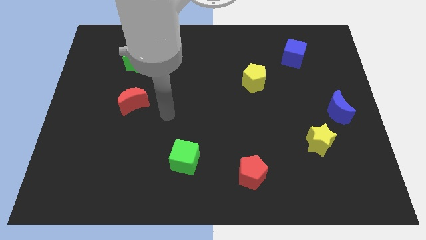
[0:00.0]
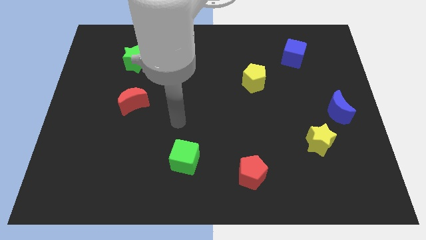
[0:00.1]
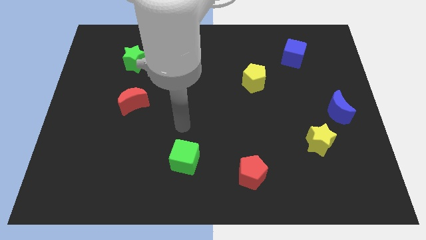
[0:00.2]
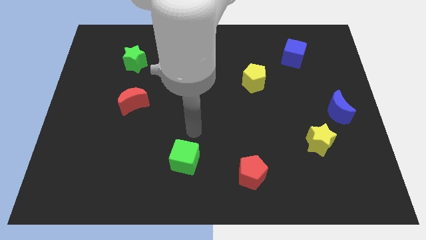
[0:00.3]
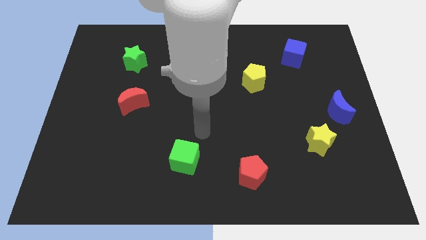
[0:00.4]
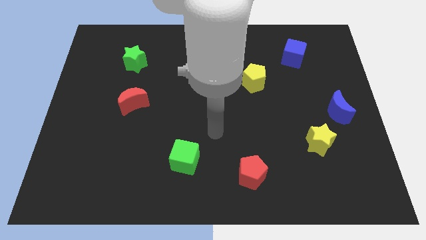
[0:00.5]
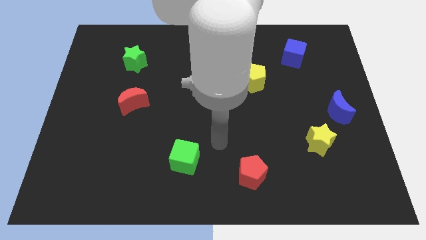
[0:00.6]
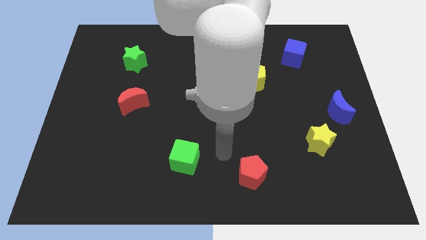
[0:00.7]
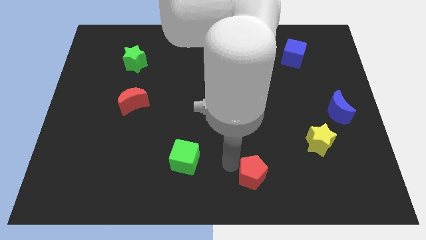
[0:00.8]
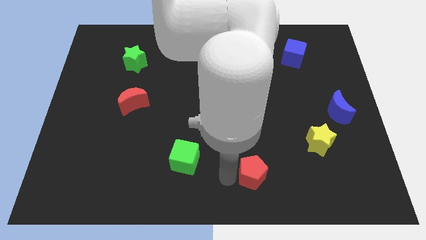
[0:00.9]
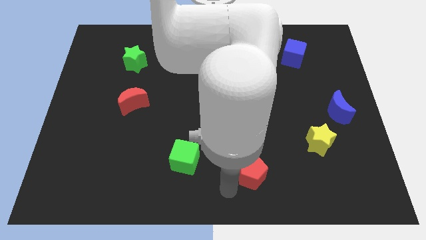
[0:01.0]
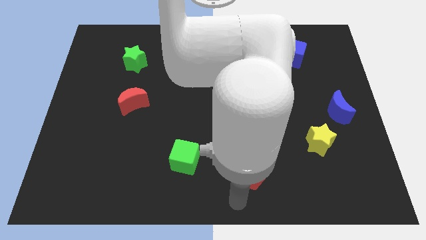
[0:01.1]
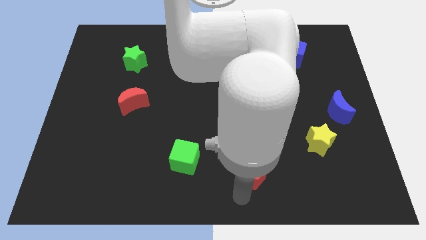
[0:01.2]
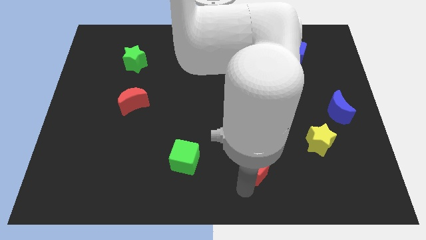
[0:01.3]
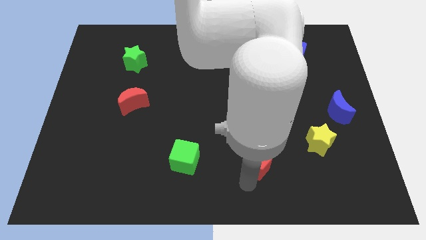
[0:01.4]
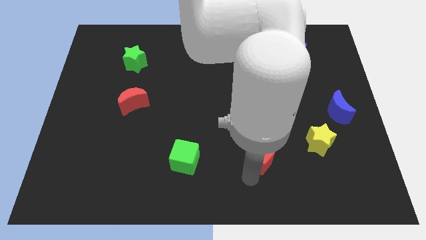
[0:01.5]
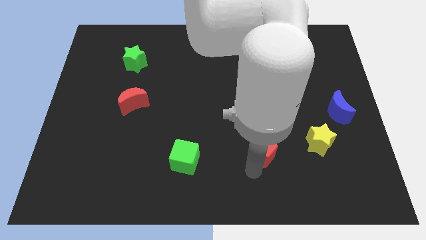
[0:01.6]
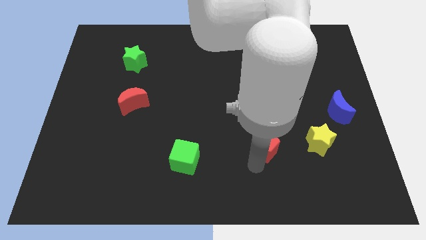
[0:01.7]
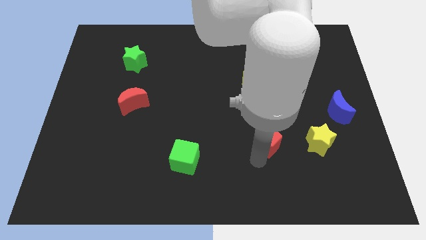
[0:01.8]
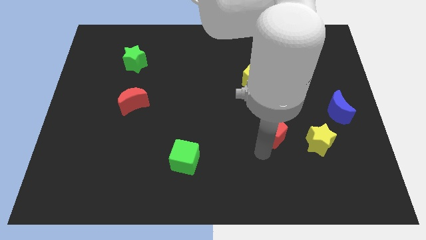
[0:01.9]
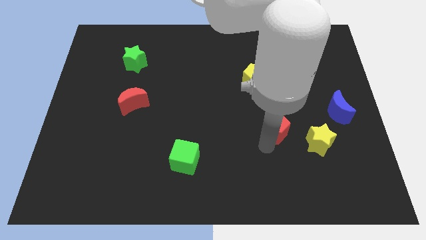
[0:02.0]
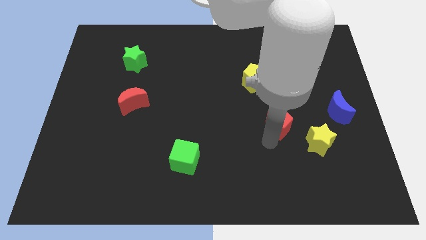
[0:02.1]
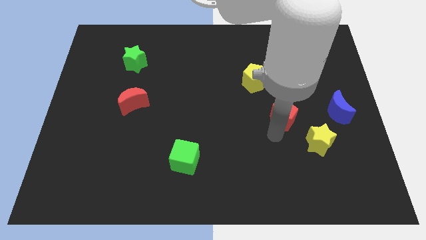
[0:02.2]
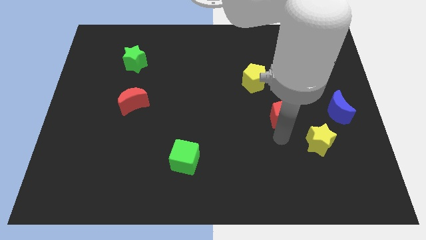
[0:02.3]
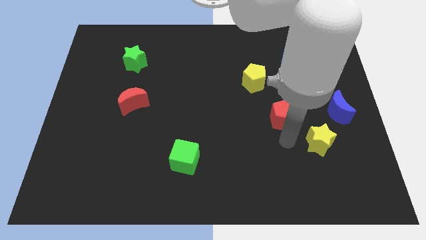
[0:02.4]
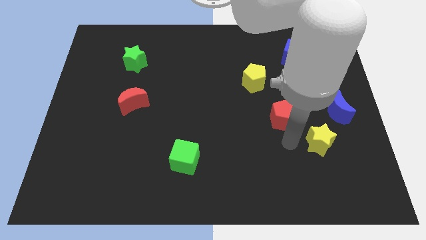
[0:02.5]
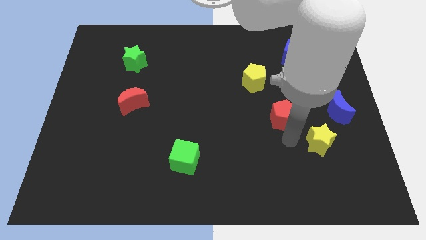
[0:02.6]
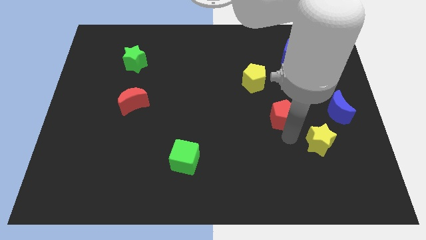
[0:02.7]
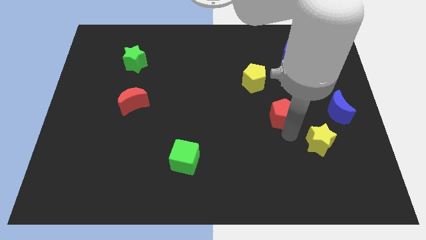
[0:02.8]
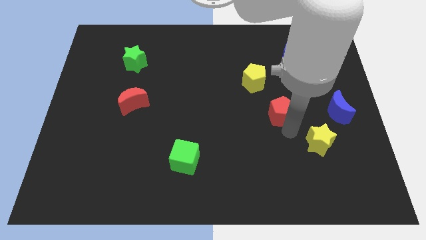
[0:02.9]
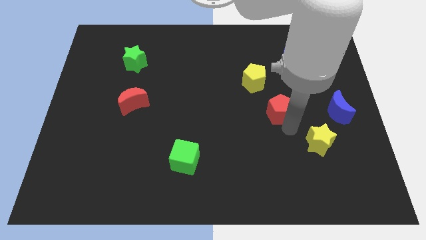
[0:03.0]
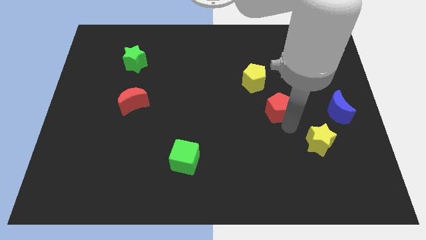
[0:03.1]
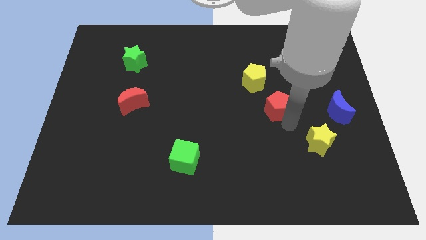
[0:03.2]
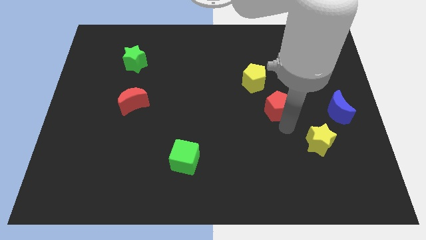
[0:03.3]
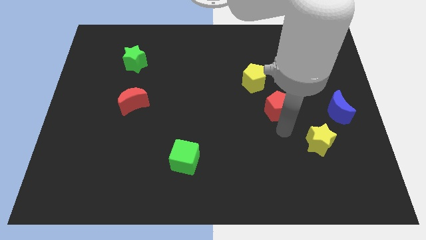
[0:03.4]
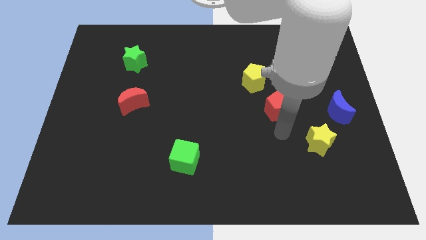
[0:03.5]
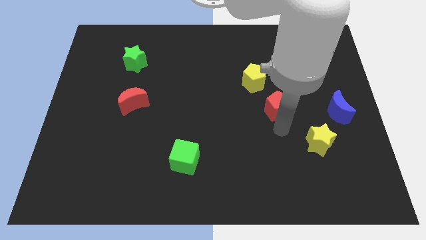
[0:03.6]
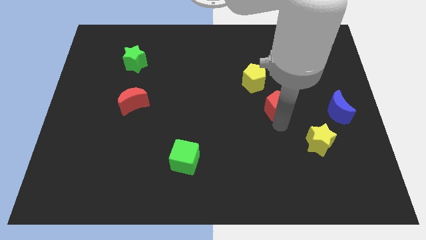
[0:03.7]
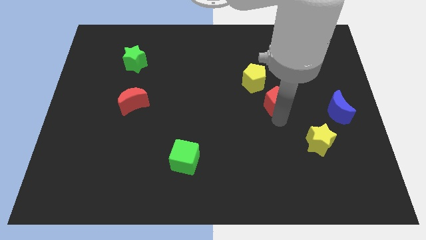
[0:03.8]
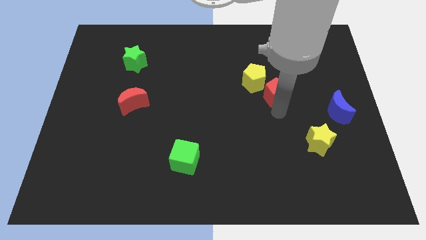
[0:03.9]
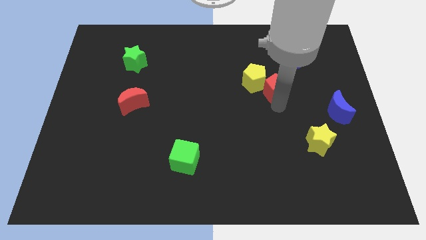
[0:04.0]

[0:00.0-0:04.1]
slide the red pentagon up

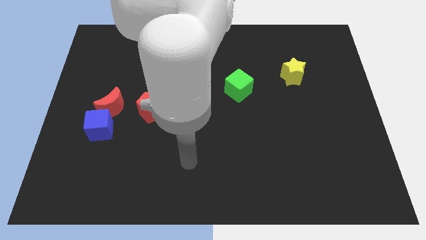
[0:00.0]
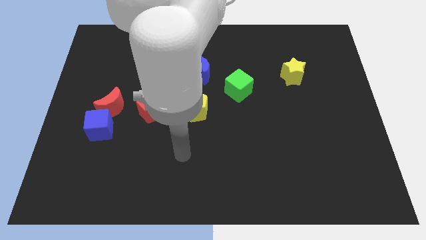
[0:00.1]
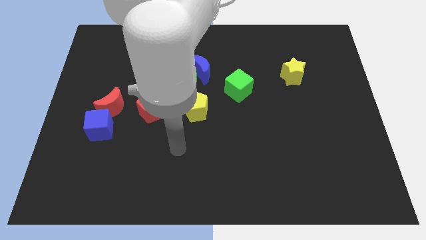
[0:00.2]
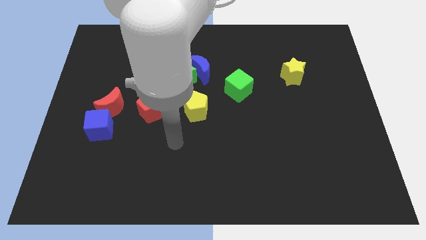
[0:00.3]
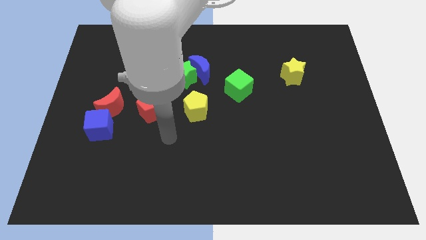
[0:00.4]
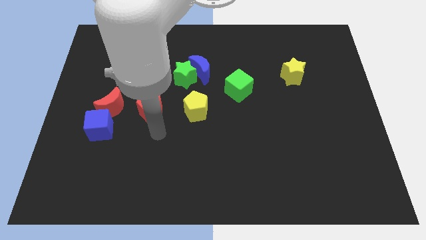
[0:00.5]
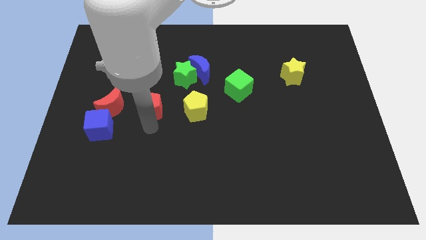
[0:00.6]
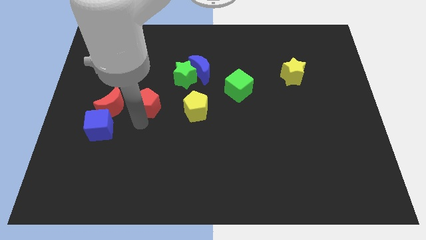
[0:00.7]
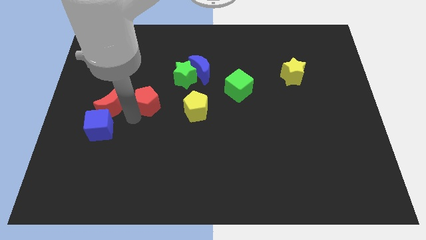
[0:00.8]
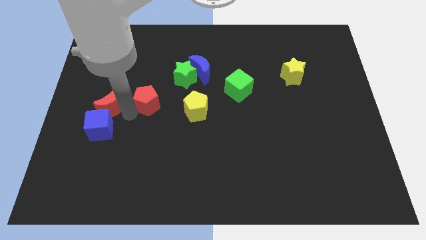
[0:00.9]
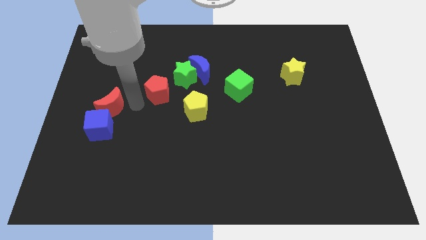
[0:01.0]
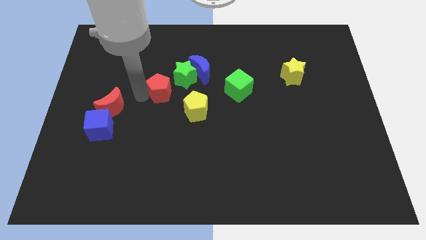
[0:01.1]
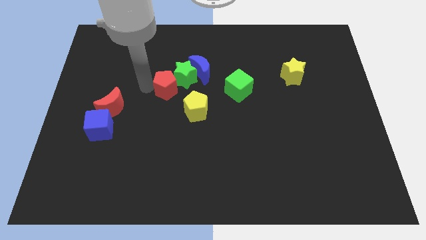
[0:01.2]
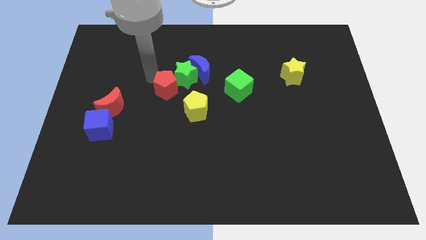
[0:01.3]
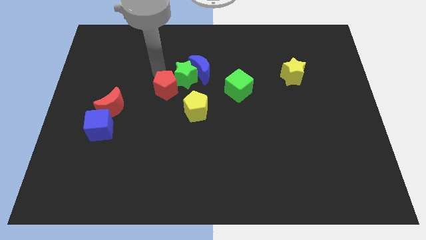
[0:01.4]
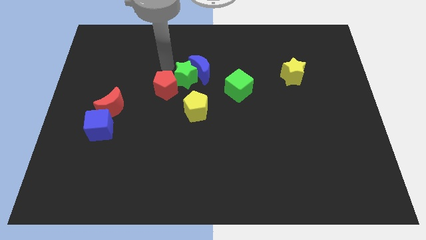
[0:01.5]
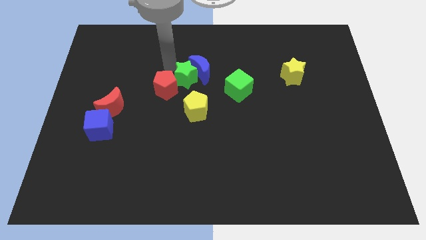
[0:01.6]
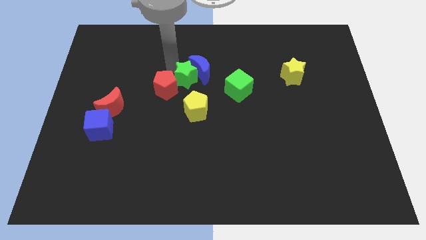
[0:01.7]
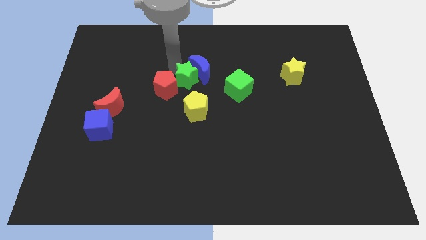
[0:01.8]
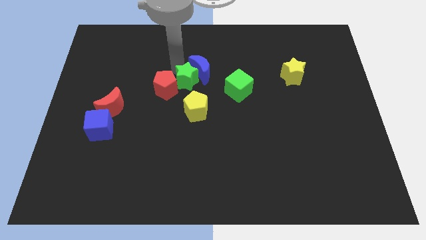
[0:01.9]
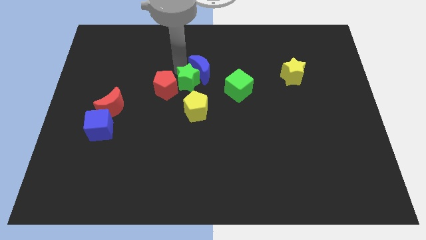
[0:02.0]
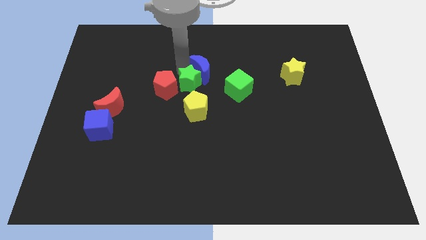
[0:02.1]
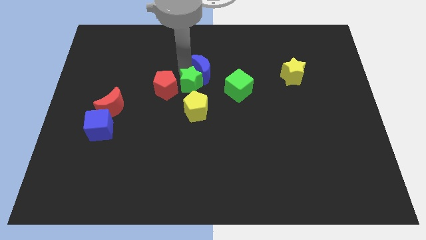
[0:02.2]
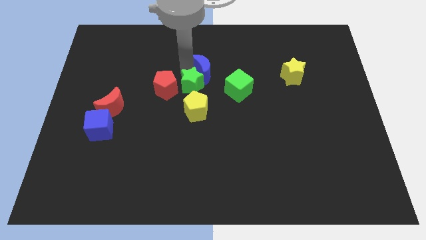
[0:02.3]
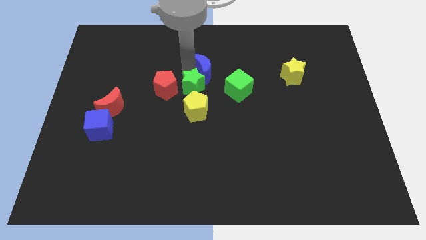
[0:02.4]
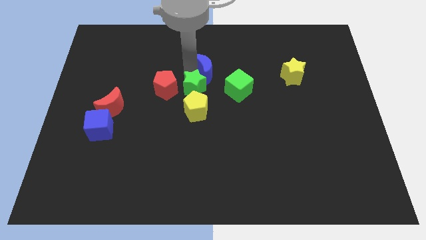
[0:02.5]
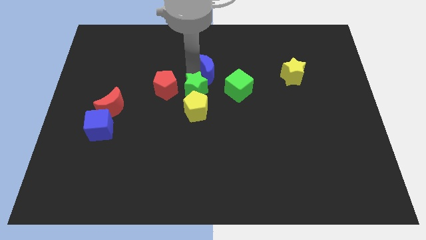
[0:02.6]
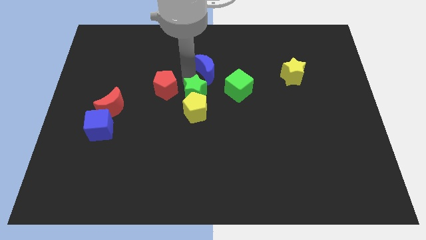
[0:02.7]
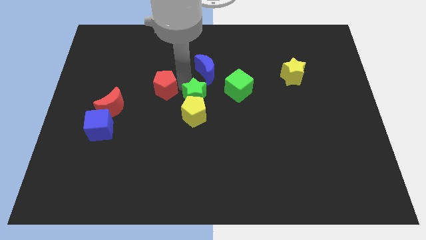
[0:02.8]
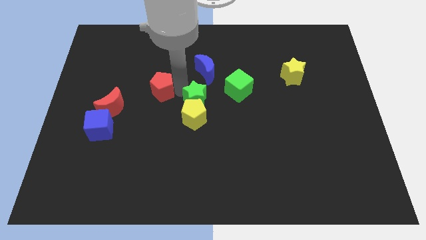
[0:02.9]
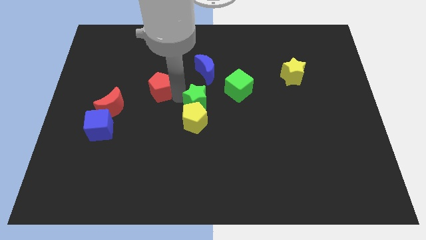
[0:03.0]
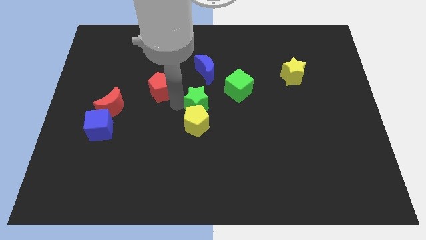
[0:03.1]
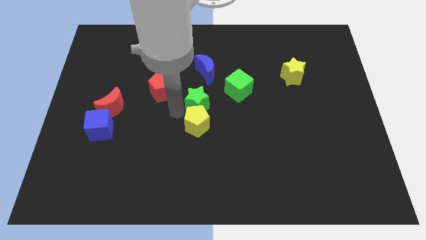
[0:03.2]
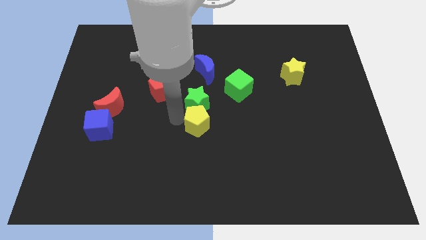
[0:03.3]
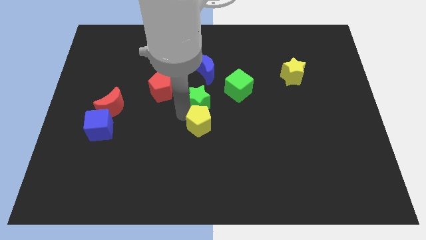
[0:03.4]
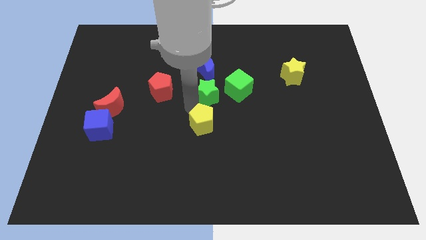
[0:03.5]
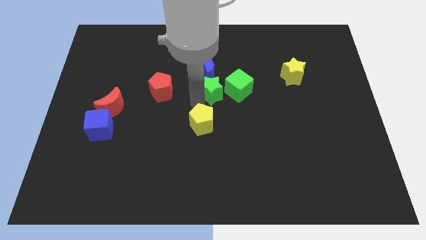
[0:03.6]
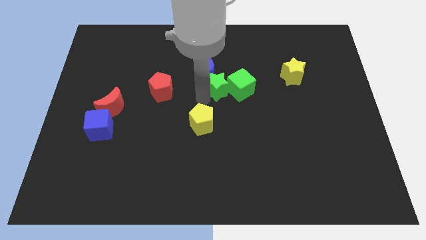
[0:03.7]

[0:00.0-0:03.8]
push the green star a little bit to the right

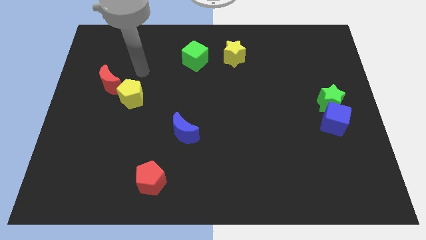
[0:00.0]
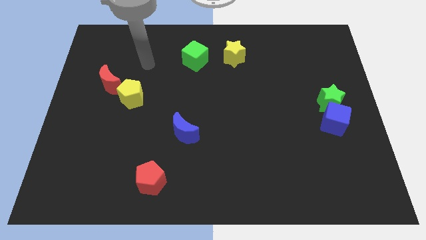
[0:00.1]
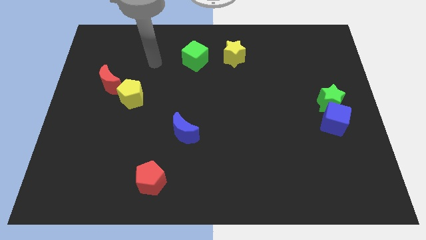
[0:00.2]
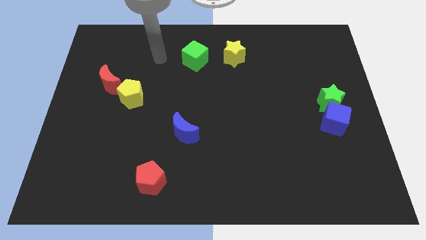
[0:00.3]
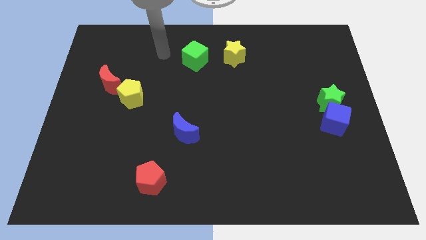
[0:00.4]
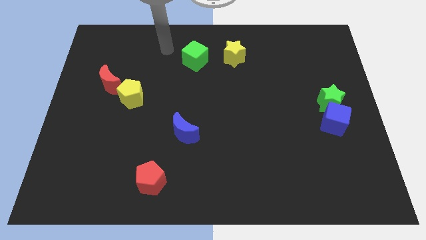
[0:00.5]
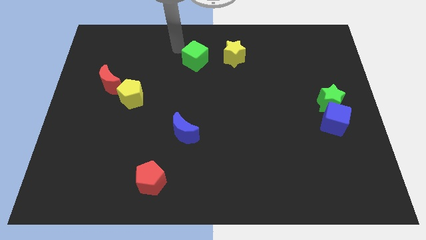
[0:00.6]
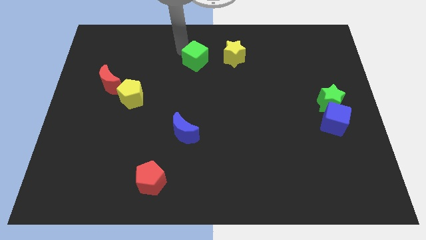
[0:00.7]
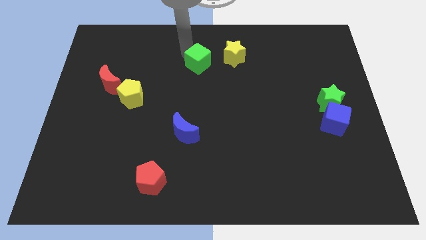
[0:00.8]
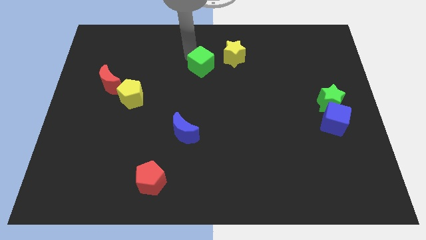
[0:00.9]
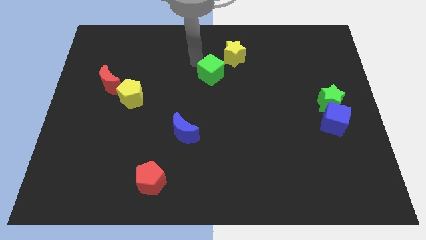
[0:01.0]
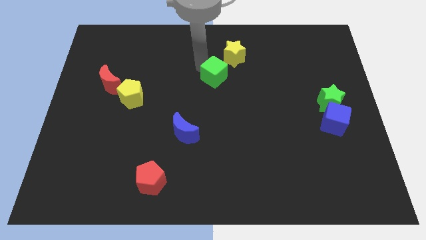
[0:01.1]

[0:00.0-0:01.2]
push the green cube a bit down and then to the right
